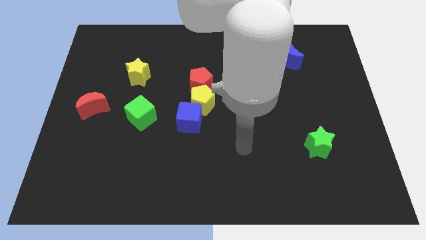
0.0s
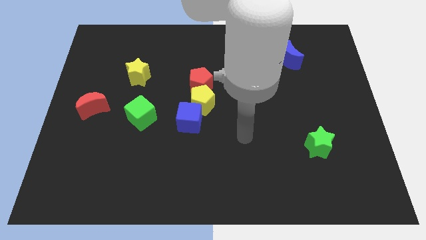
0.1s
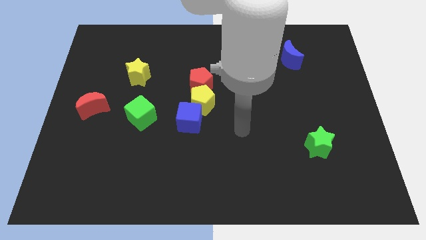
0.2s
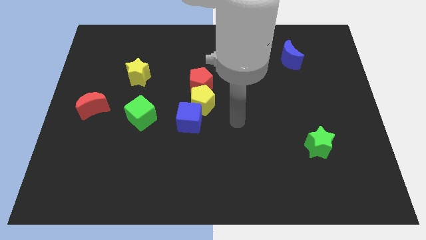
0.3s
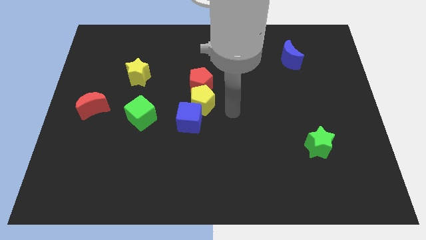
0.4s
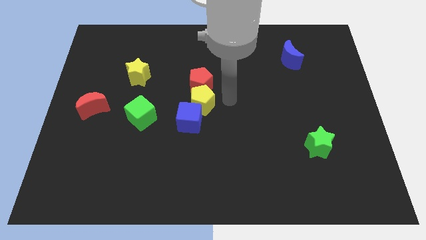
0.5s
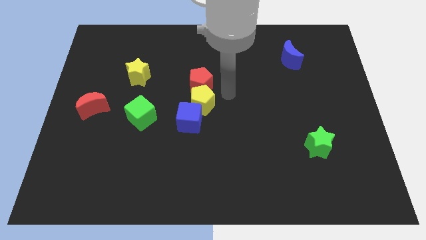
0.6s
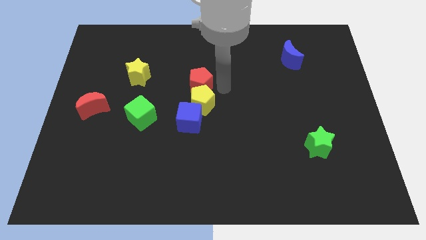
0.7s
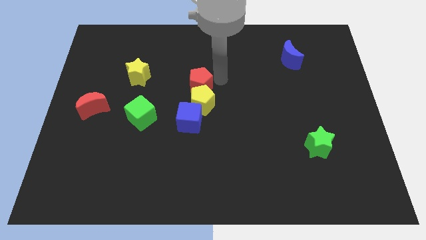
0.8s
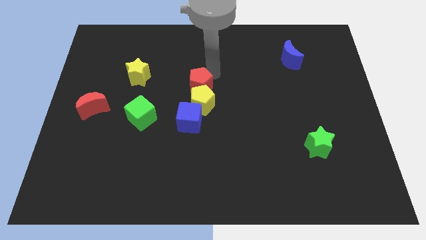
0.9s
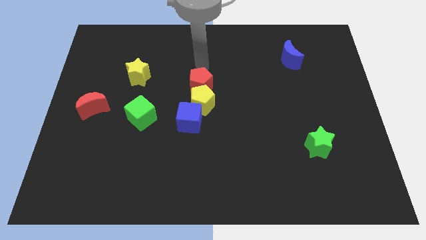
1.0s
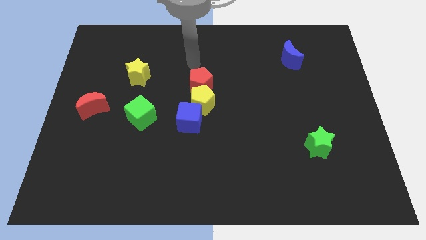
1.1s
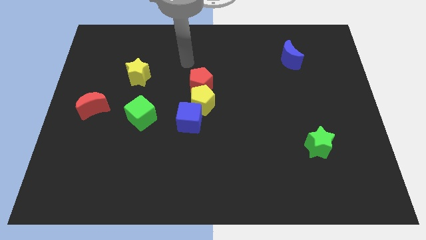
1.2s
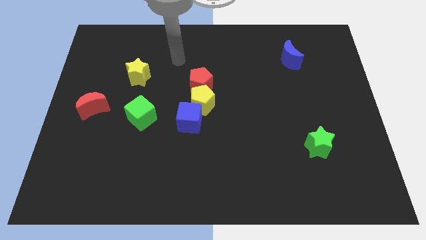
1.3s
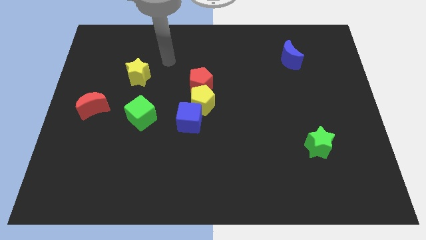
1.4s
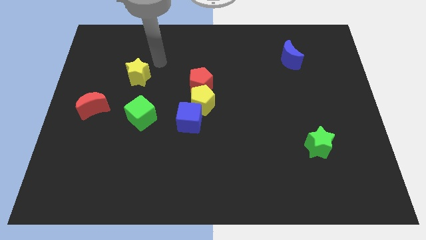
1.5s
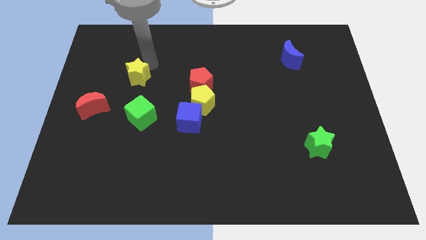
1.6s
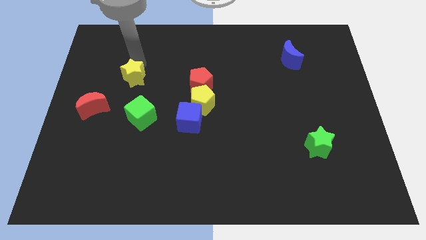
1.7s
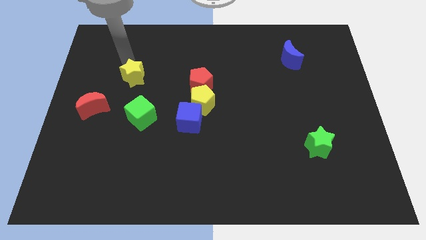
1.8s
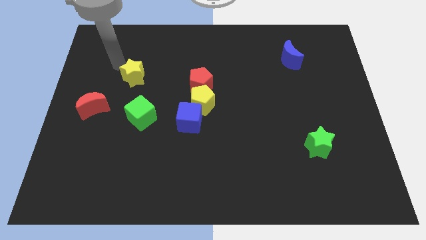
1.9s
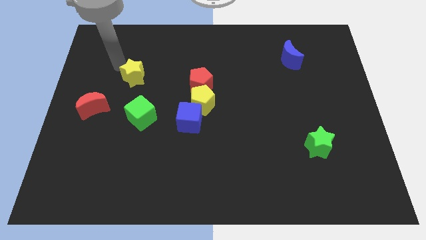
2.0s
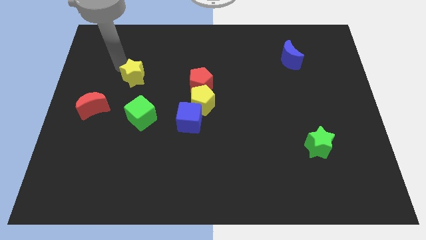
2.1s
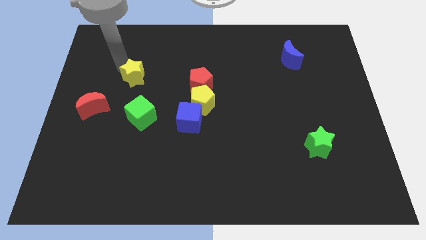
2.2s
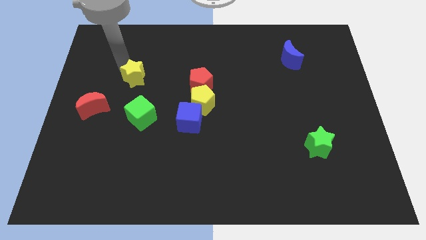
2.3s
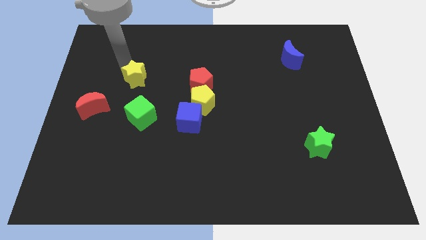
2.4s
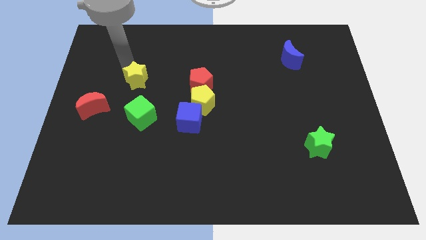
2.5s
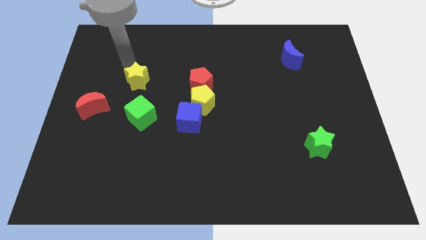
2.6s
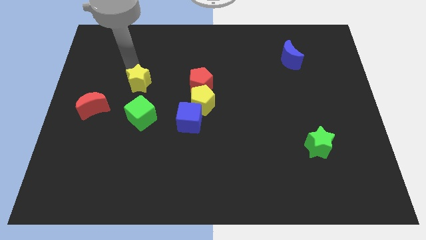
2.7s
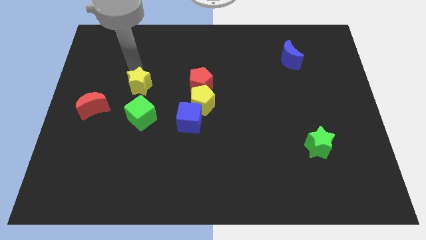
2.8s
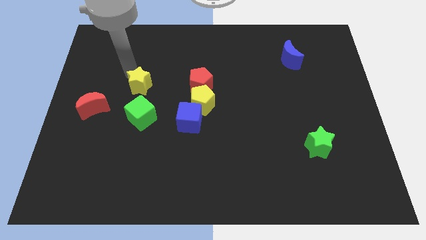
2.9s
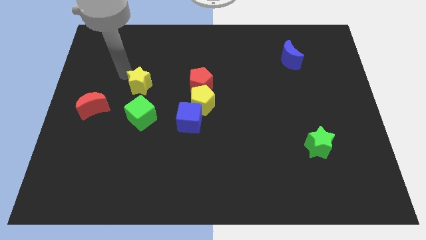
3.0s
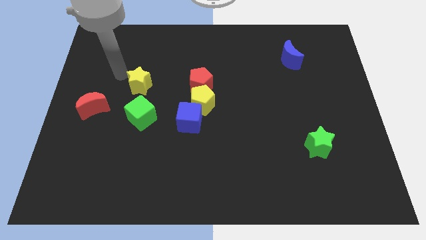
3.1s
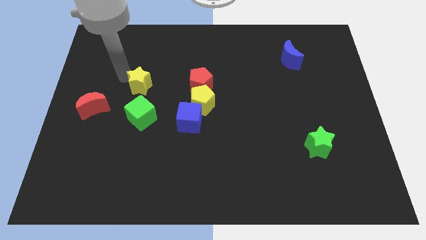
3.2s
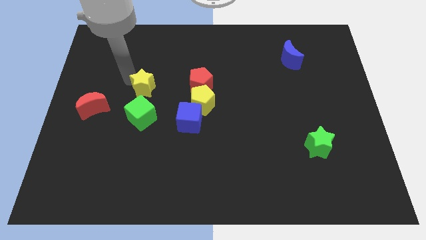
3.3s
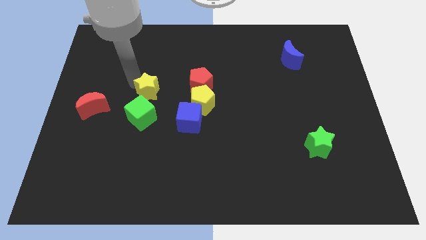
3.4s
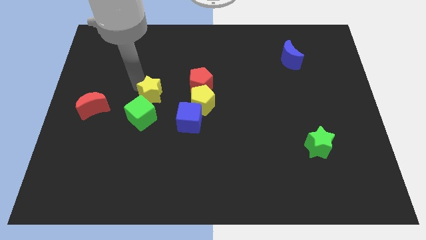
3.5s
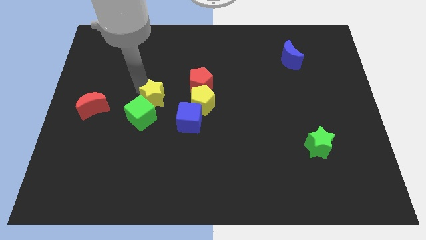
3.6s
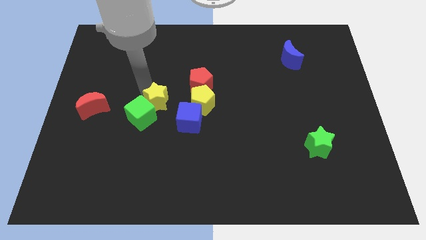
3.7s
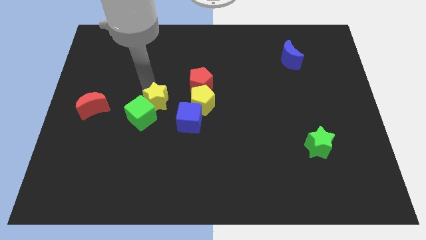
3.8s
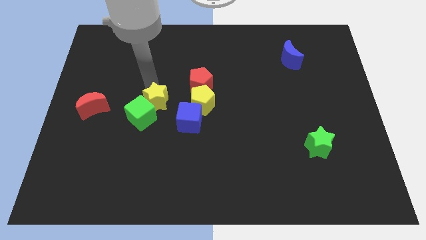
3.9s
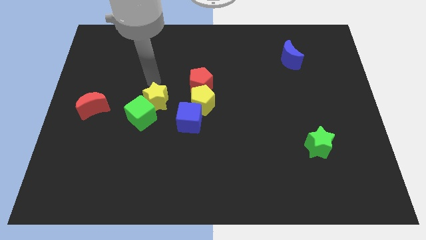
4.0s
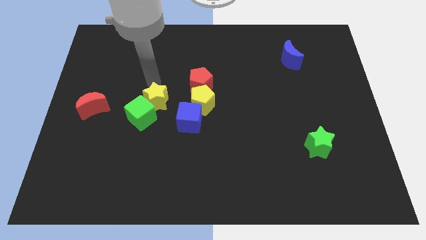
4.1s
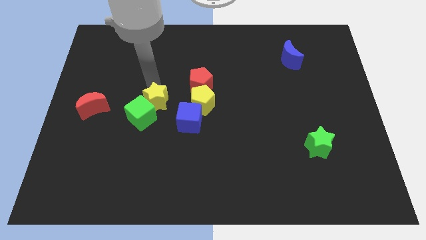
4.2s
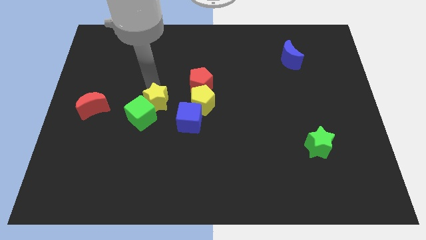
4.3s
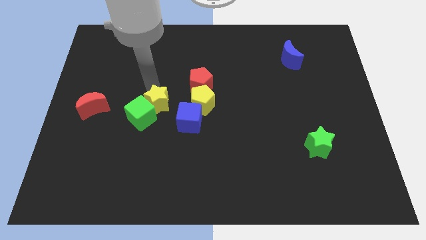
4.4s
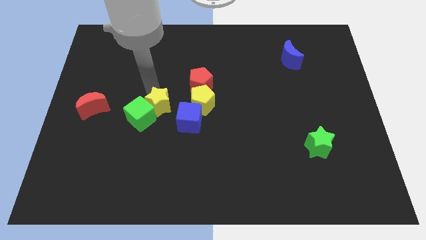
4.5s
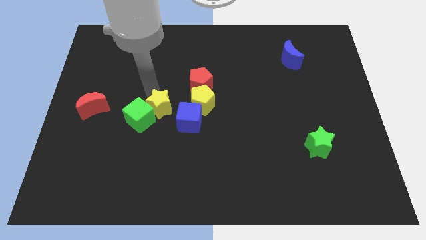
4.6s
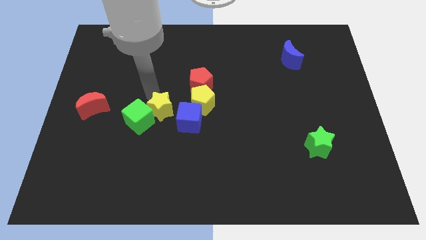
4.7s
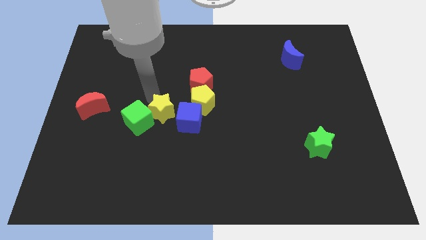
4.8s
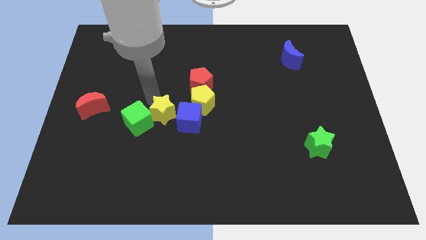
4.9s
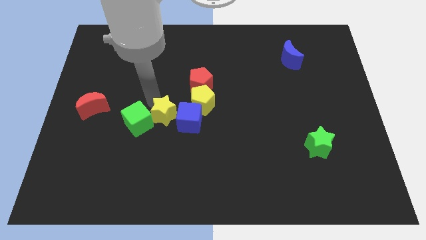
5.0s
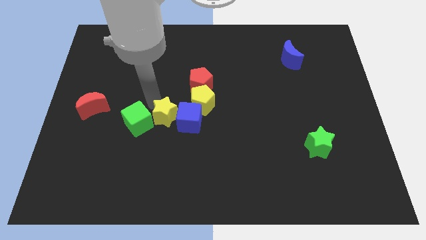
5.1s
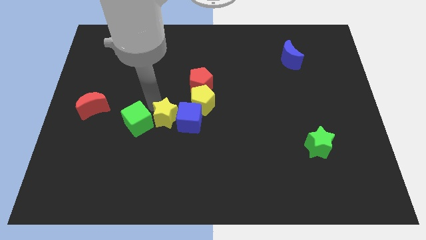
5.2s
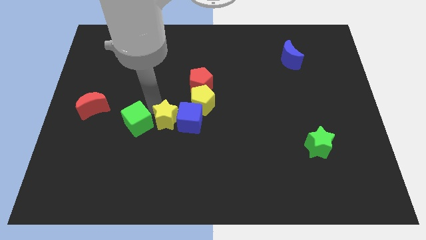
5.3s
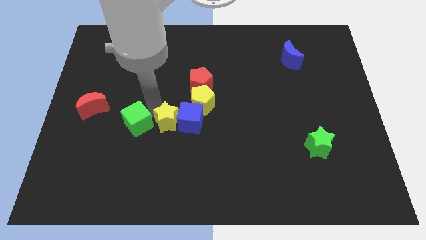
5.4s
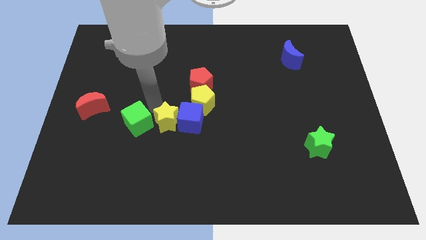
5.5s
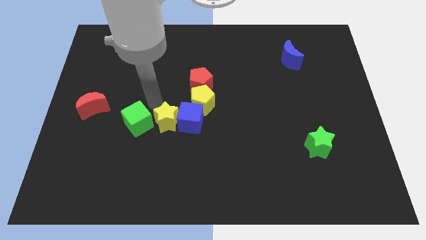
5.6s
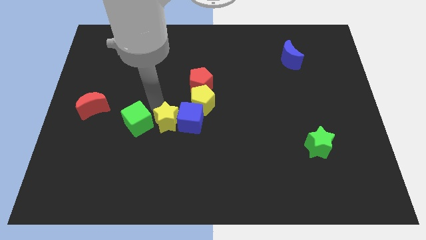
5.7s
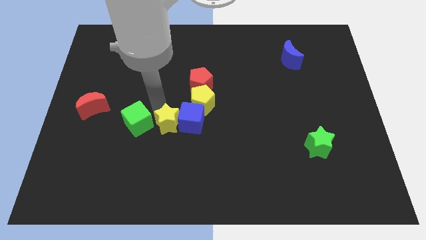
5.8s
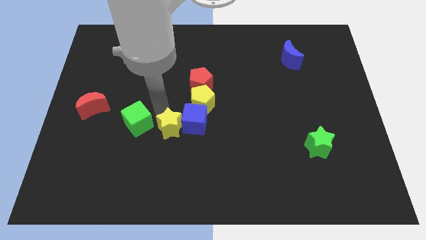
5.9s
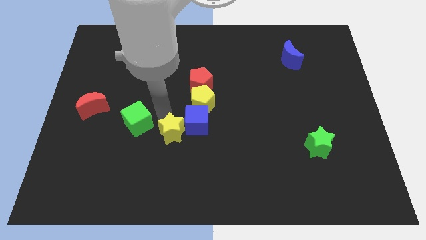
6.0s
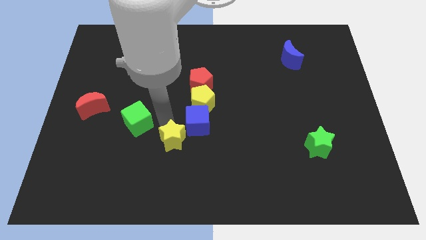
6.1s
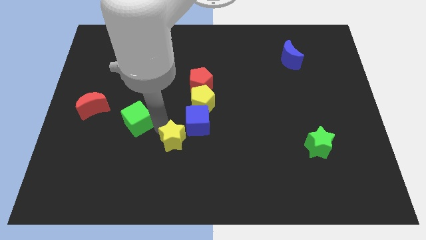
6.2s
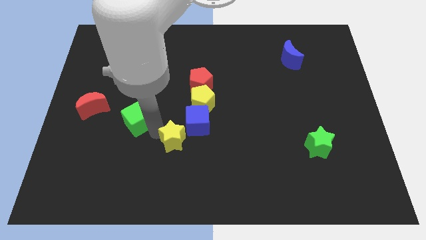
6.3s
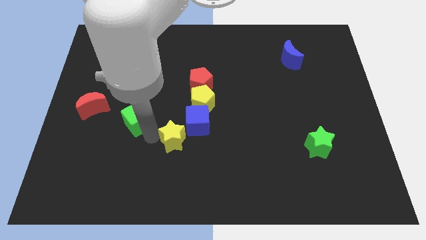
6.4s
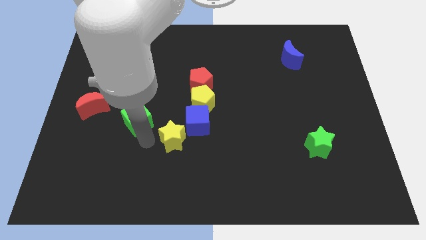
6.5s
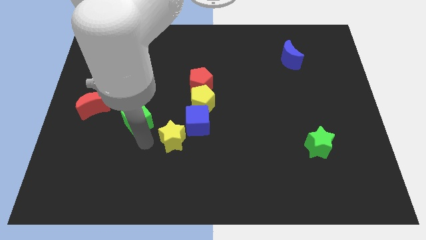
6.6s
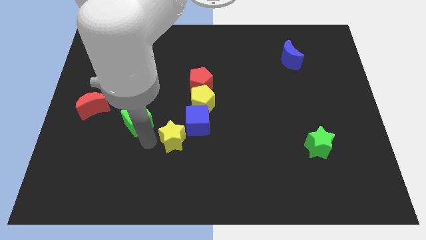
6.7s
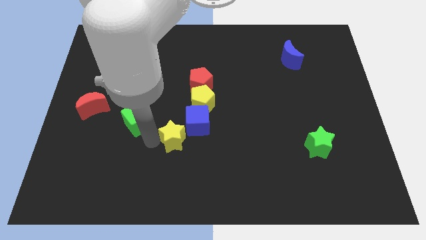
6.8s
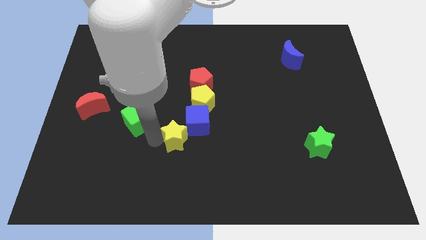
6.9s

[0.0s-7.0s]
move the yellow star downwards and to the right

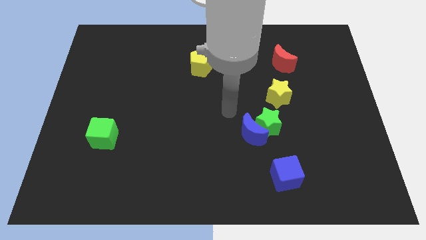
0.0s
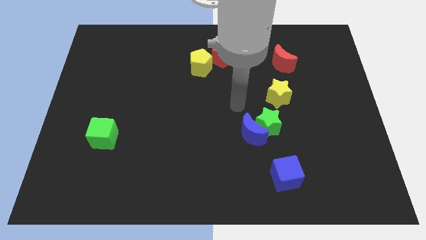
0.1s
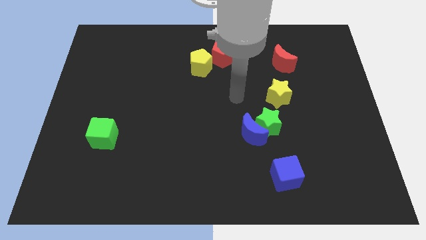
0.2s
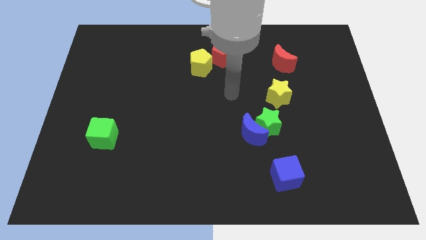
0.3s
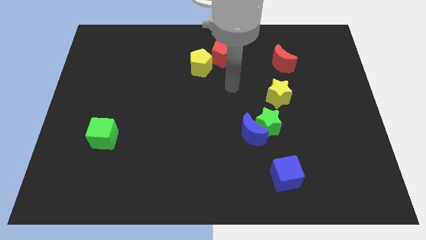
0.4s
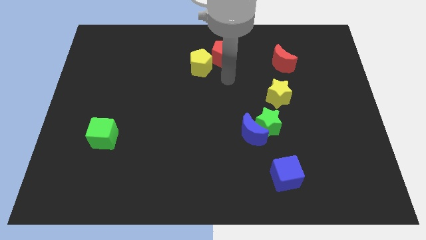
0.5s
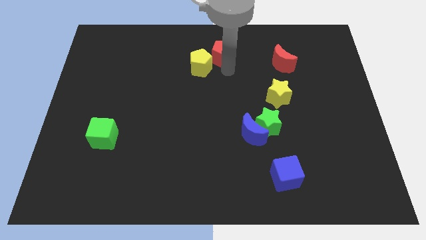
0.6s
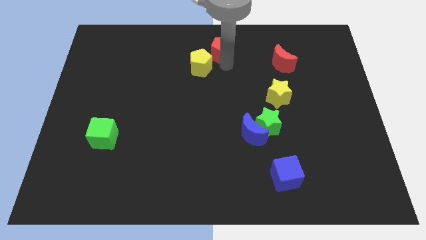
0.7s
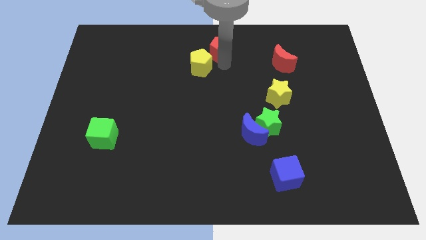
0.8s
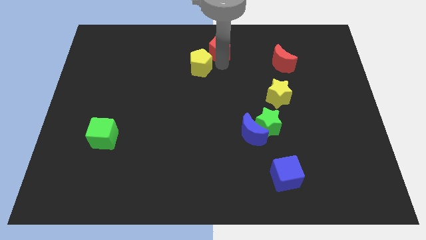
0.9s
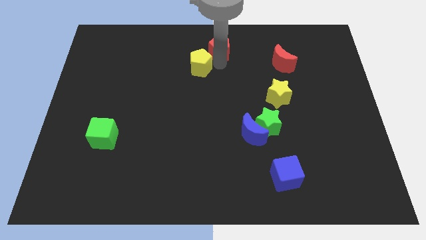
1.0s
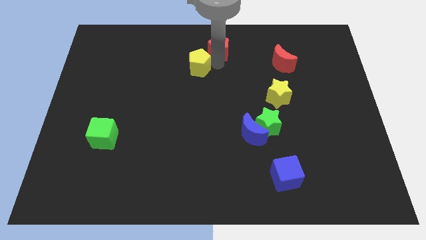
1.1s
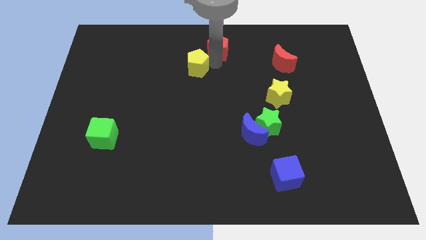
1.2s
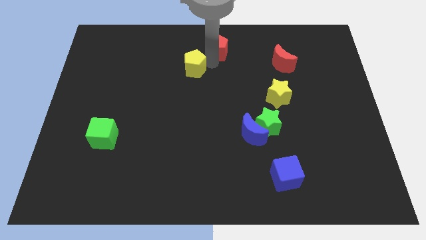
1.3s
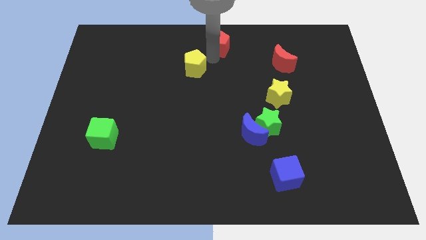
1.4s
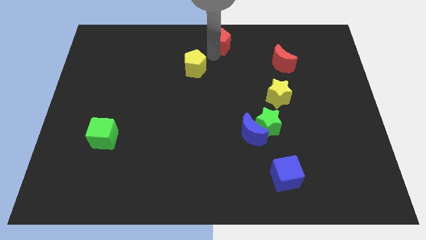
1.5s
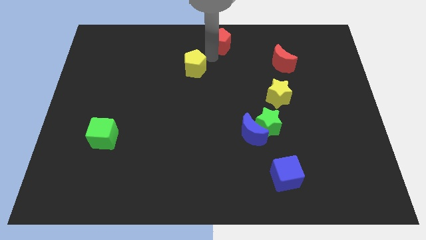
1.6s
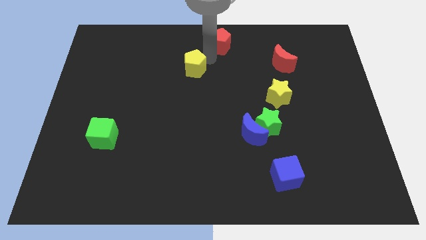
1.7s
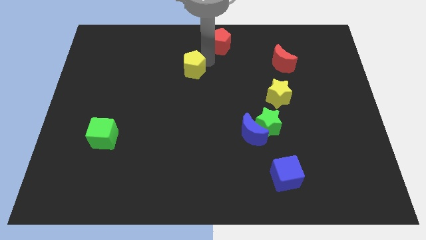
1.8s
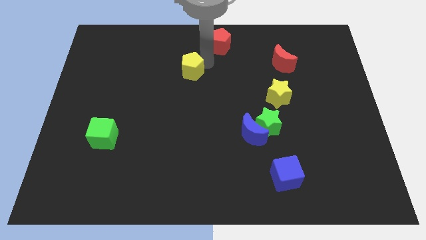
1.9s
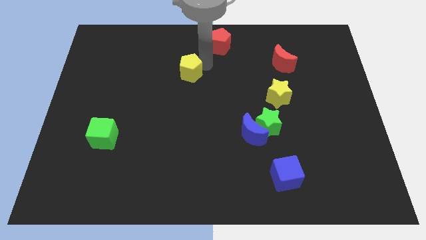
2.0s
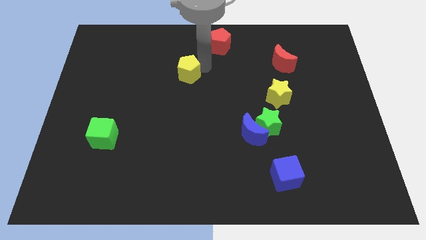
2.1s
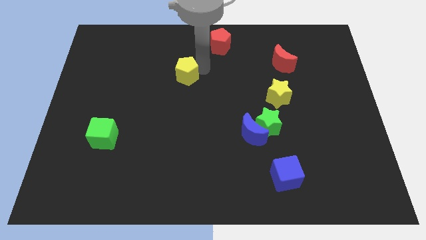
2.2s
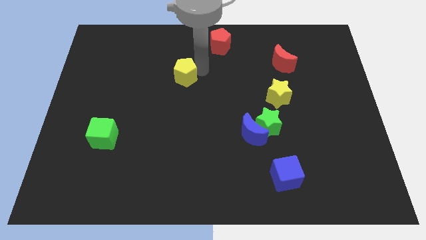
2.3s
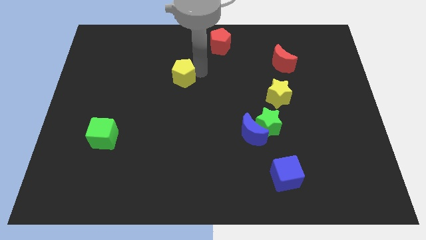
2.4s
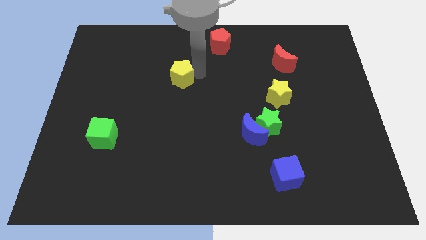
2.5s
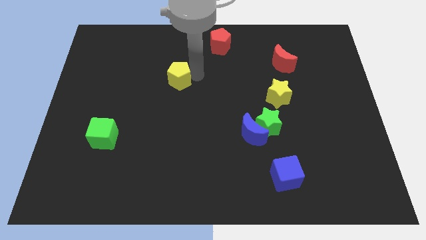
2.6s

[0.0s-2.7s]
push the yellow pentagon diagonally downwards and to the left somewhat
